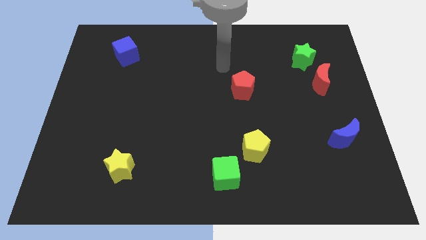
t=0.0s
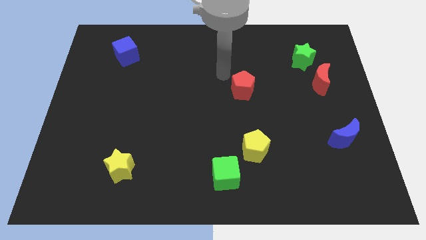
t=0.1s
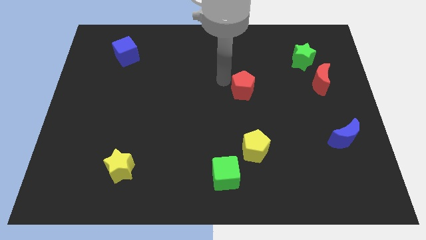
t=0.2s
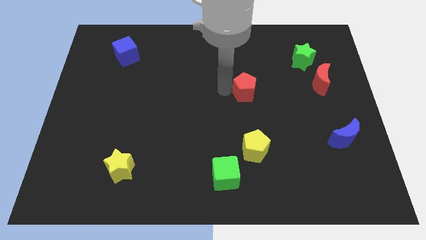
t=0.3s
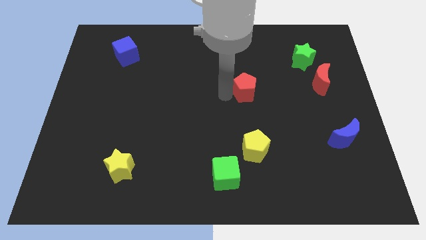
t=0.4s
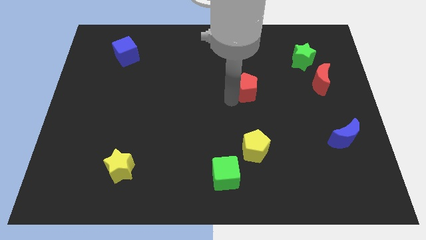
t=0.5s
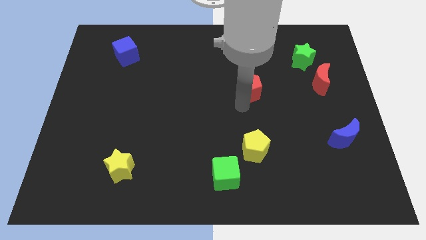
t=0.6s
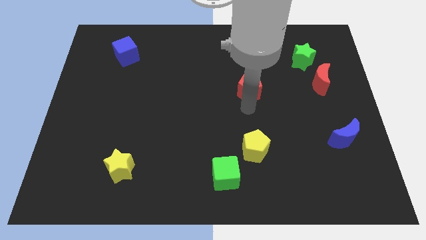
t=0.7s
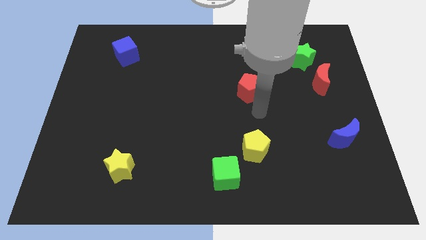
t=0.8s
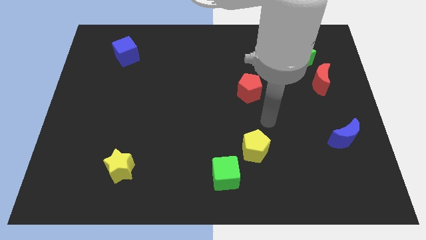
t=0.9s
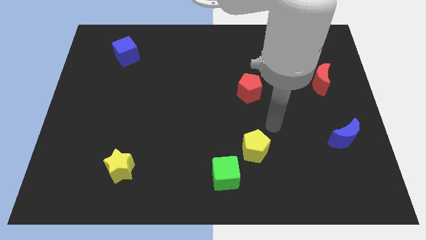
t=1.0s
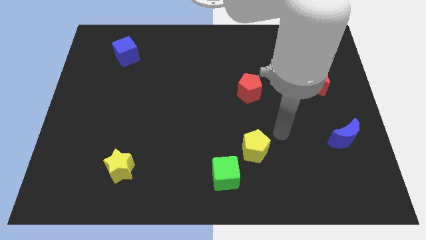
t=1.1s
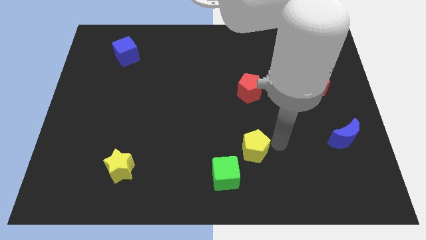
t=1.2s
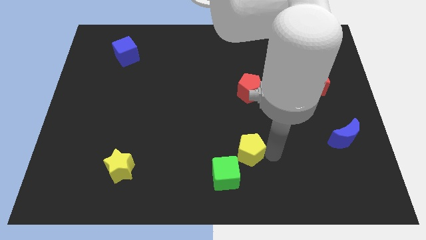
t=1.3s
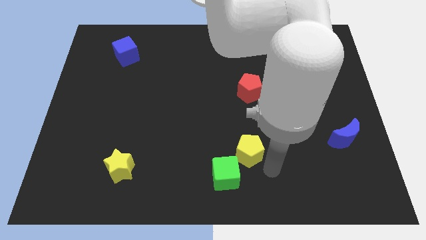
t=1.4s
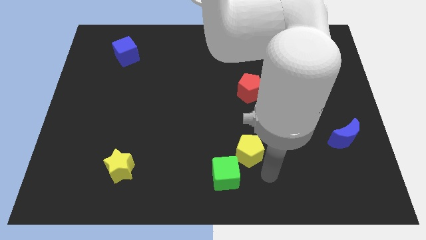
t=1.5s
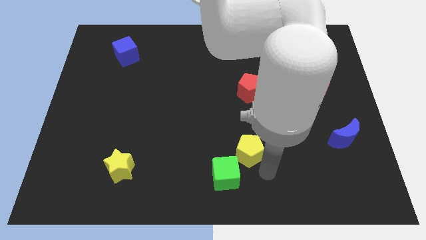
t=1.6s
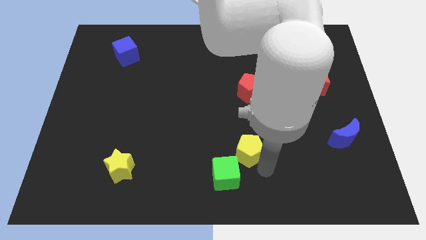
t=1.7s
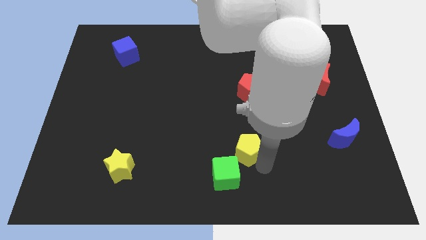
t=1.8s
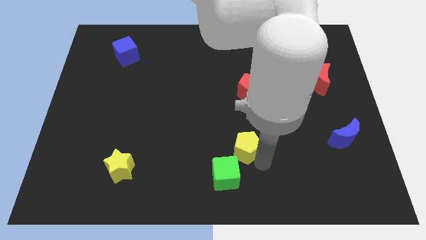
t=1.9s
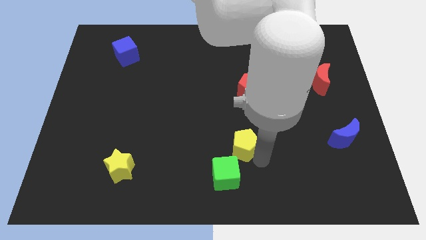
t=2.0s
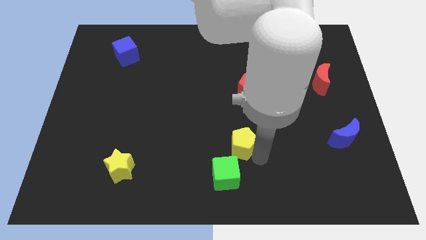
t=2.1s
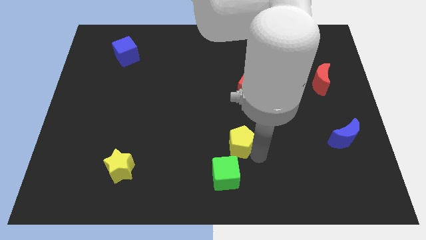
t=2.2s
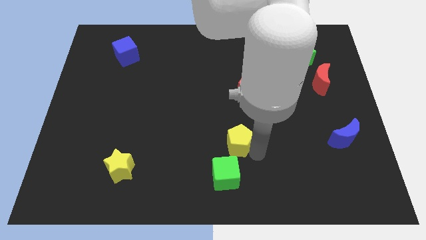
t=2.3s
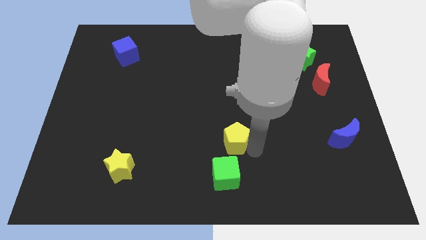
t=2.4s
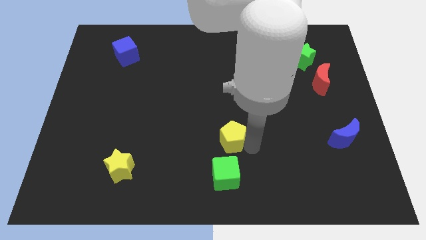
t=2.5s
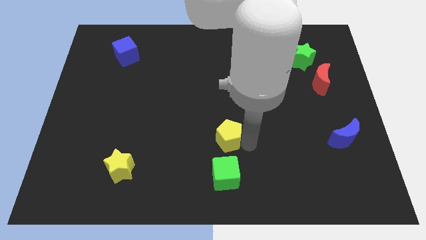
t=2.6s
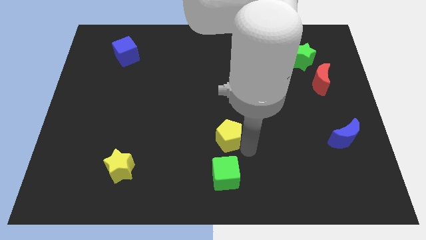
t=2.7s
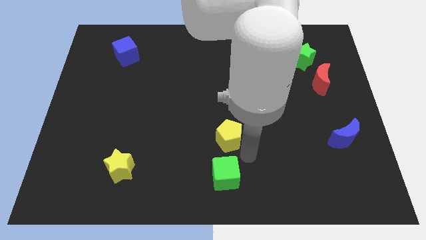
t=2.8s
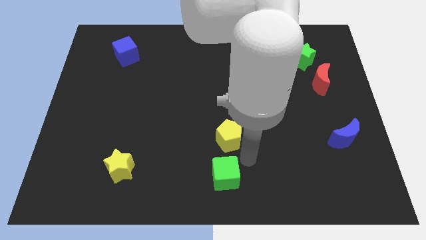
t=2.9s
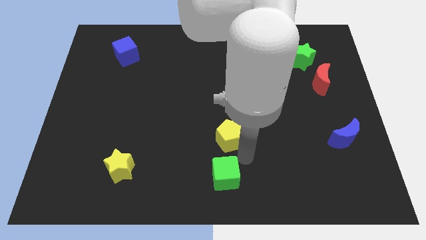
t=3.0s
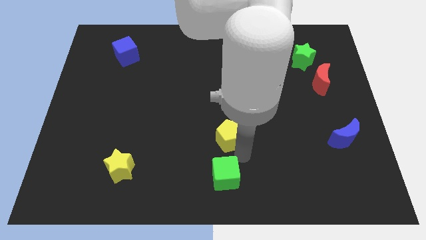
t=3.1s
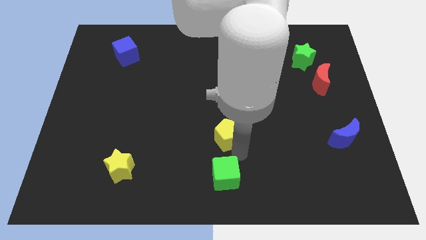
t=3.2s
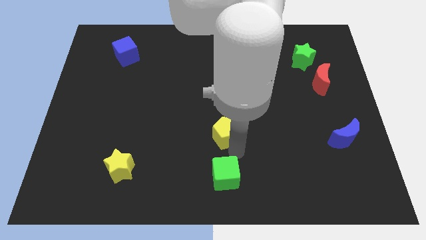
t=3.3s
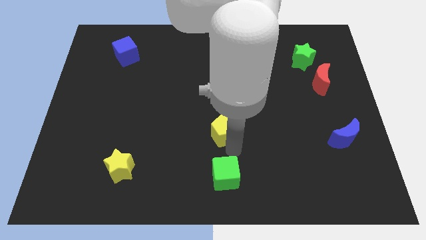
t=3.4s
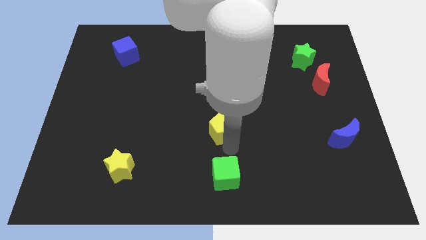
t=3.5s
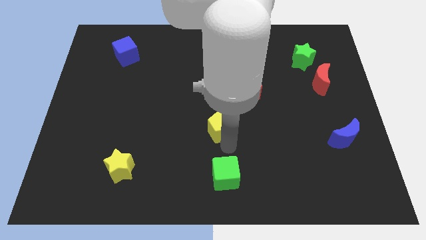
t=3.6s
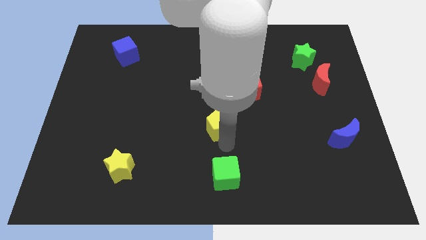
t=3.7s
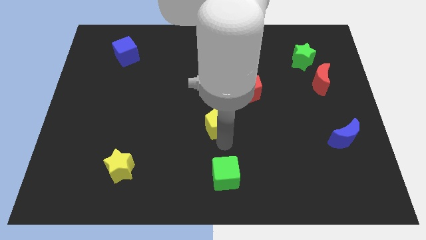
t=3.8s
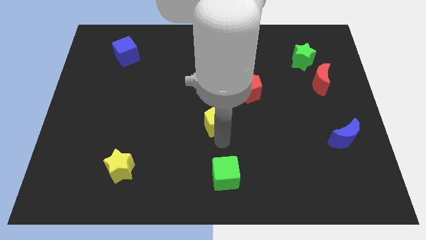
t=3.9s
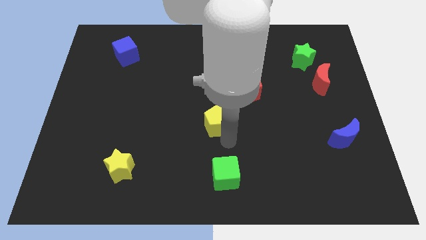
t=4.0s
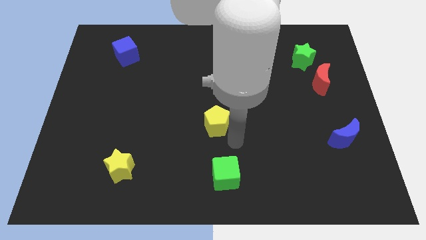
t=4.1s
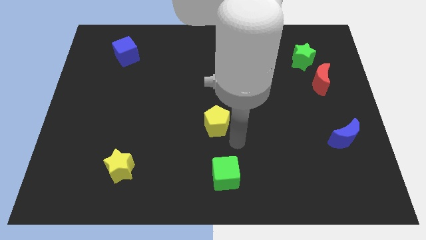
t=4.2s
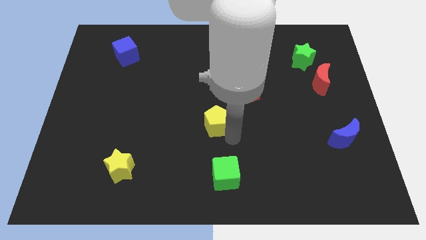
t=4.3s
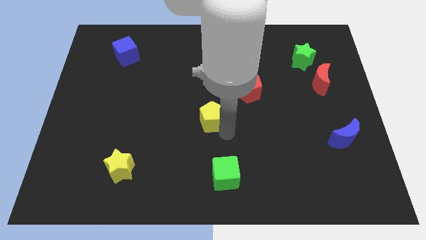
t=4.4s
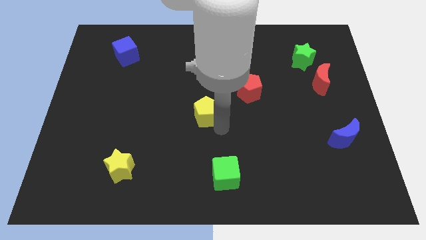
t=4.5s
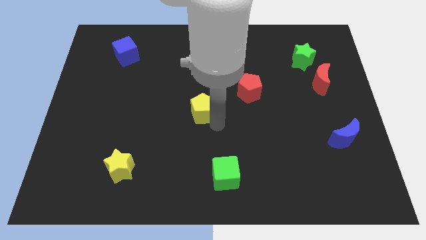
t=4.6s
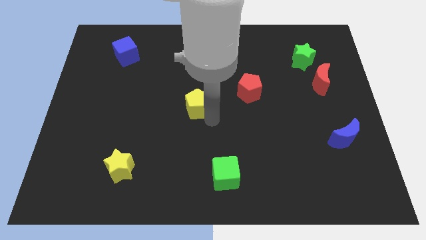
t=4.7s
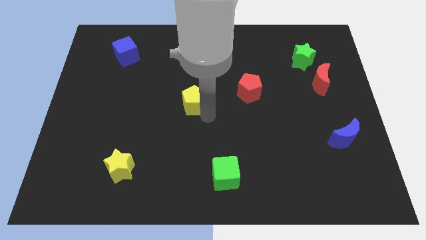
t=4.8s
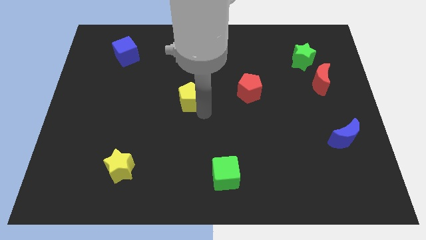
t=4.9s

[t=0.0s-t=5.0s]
move the yellow pentagon upwards and then to the left

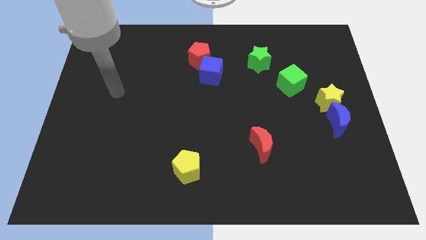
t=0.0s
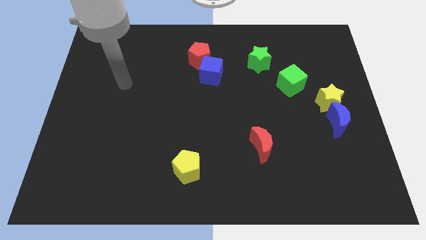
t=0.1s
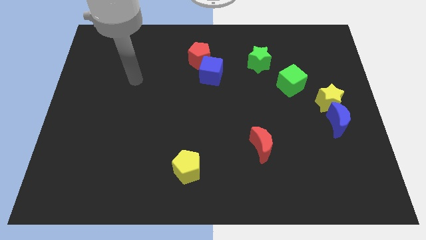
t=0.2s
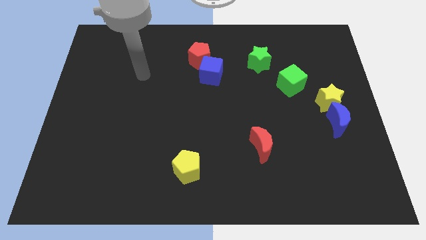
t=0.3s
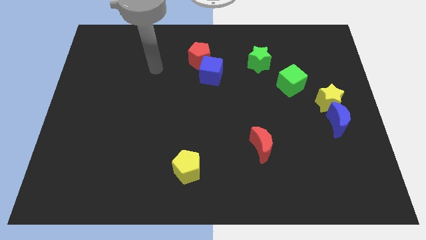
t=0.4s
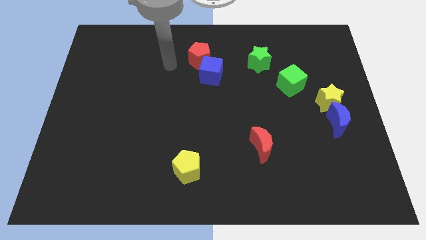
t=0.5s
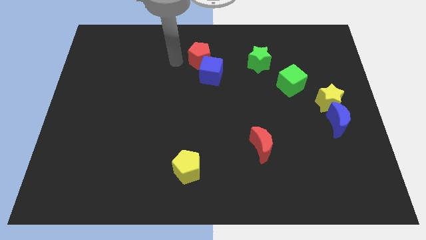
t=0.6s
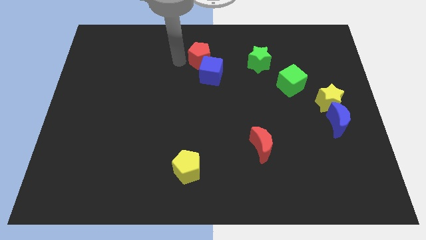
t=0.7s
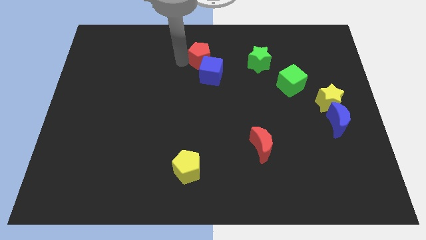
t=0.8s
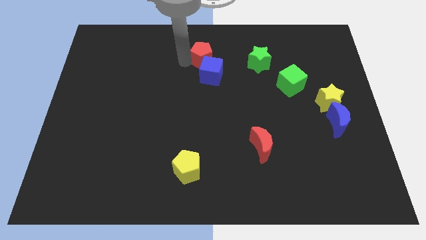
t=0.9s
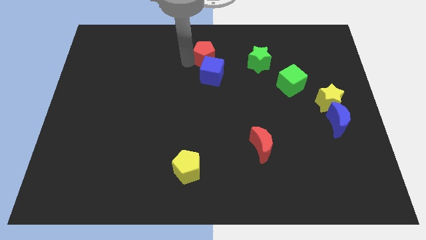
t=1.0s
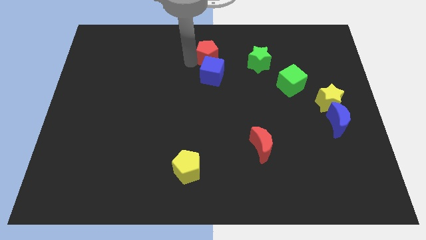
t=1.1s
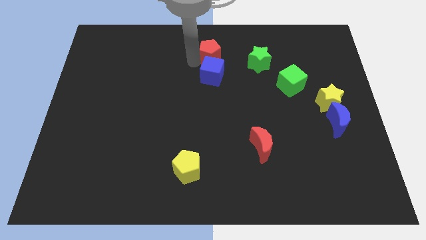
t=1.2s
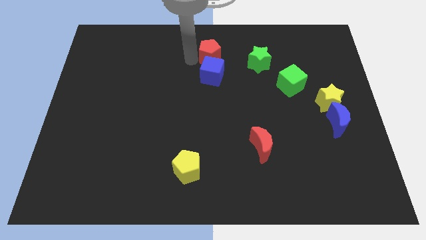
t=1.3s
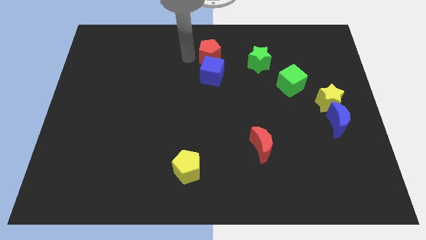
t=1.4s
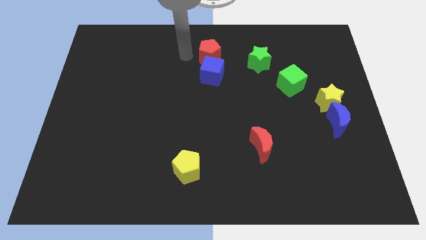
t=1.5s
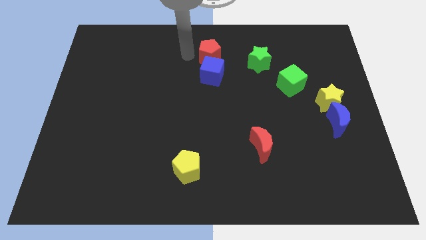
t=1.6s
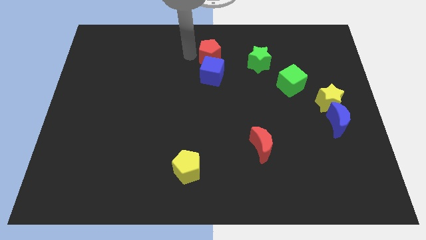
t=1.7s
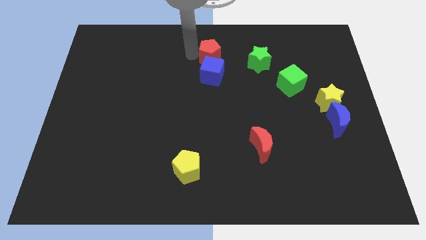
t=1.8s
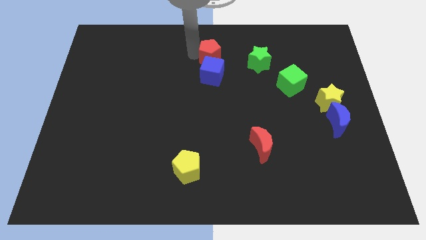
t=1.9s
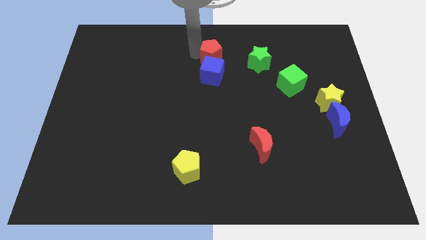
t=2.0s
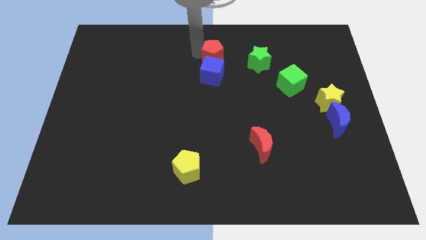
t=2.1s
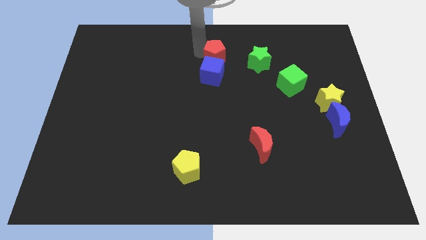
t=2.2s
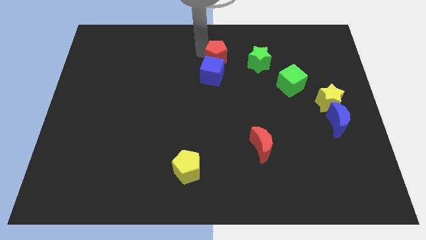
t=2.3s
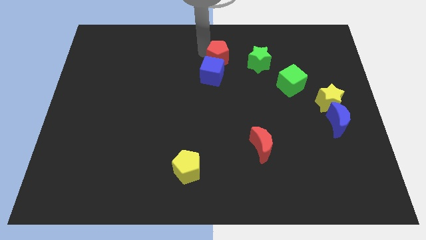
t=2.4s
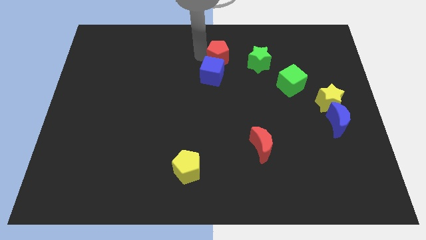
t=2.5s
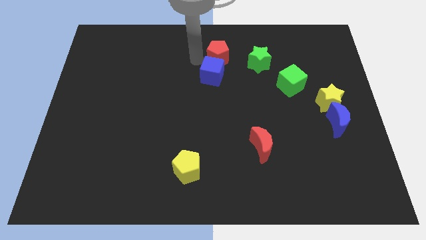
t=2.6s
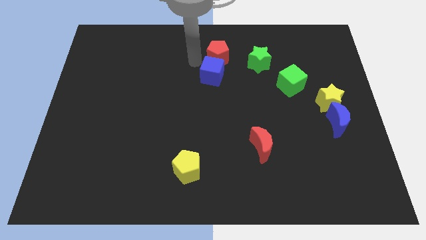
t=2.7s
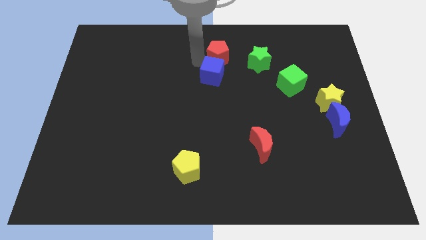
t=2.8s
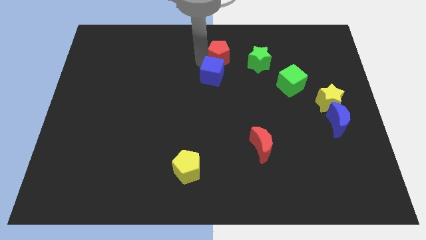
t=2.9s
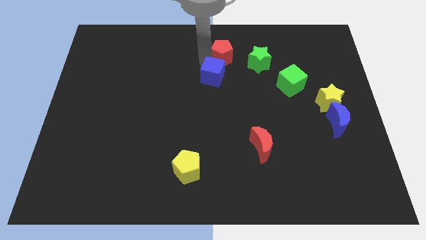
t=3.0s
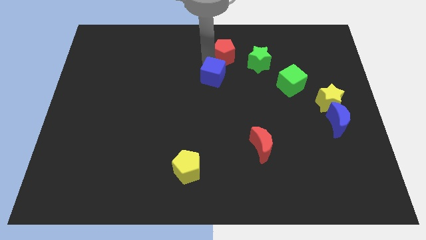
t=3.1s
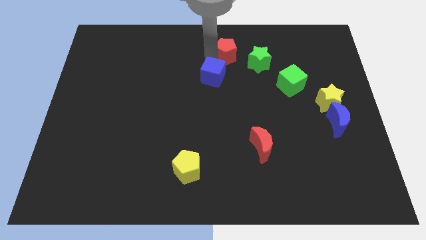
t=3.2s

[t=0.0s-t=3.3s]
slide the red pentagon to the right slightly

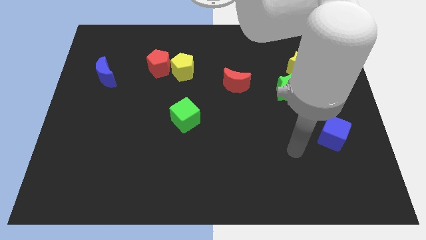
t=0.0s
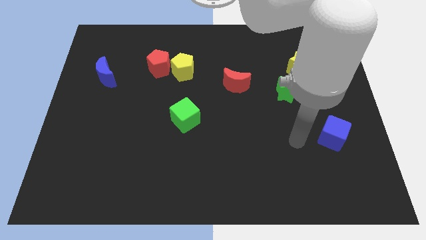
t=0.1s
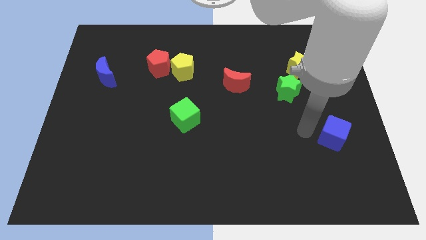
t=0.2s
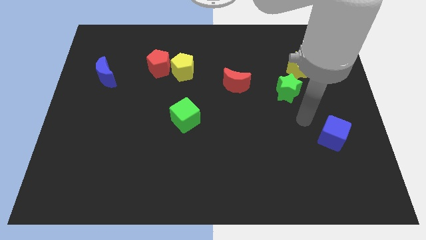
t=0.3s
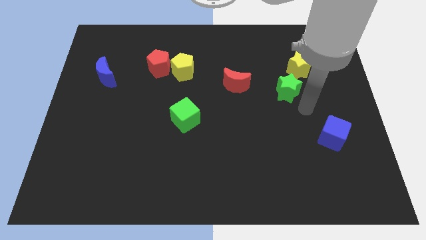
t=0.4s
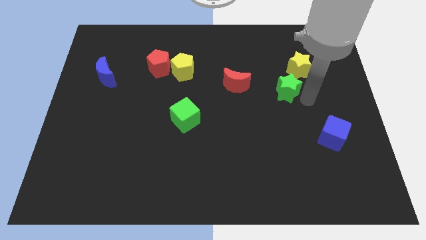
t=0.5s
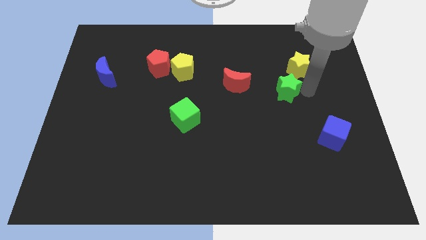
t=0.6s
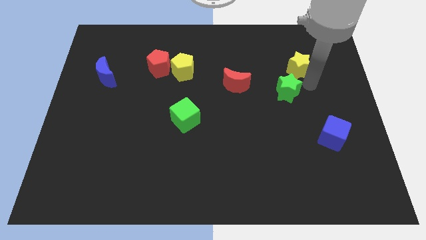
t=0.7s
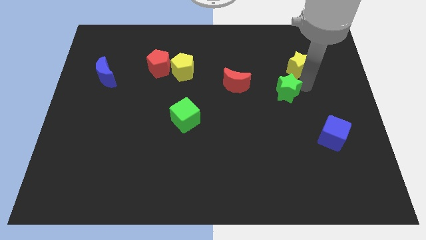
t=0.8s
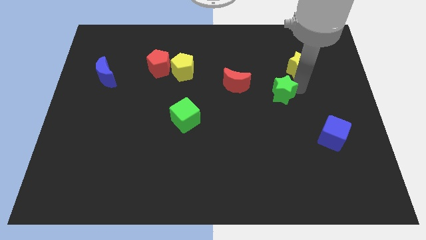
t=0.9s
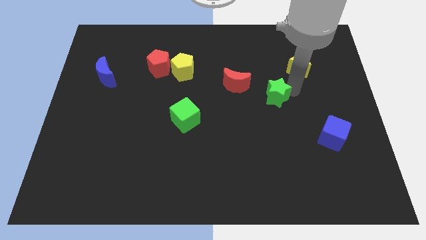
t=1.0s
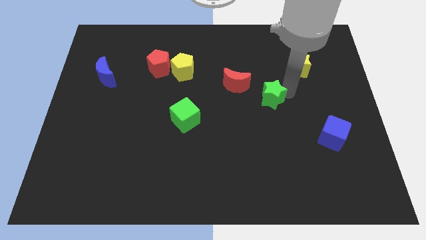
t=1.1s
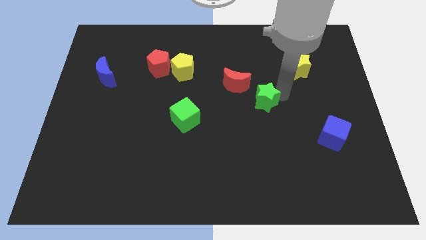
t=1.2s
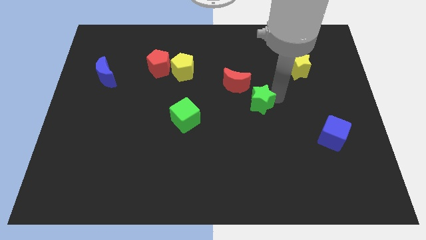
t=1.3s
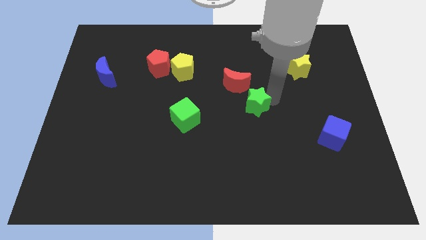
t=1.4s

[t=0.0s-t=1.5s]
move the green star slightly to the left
